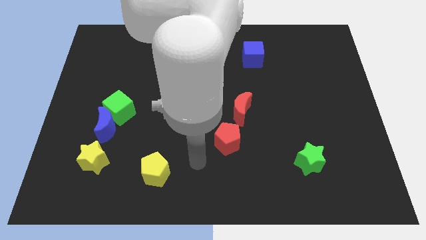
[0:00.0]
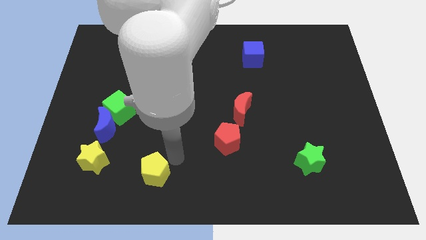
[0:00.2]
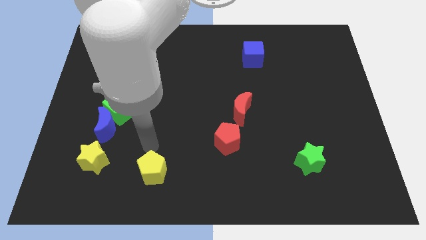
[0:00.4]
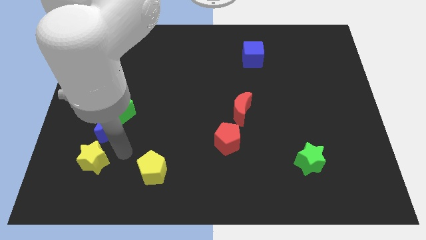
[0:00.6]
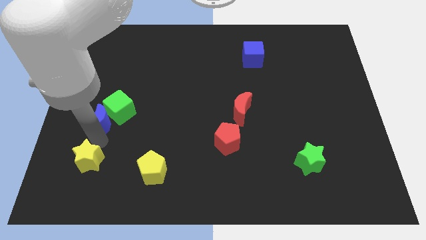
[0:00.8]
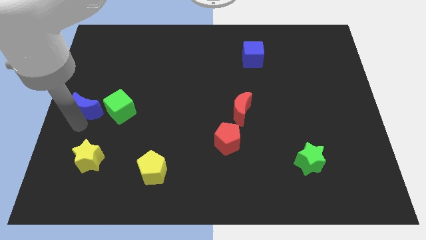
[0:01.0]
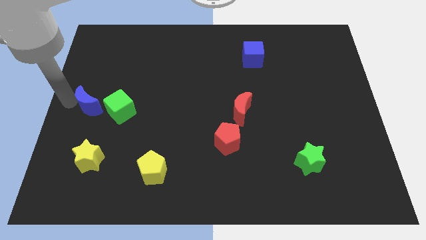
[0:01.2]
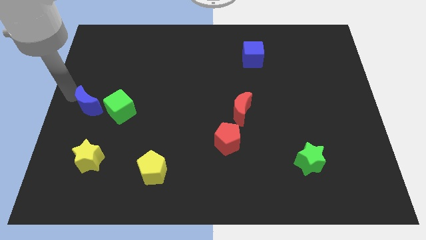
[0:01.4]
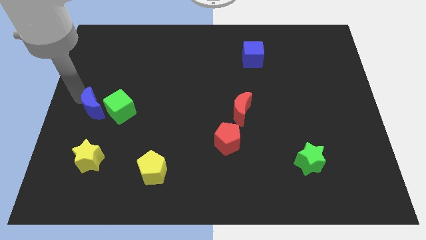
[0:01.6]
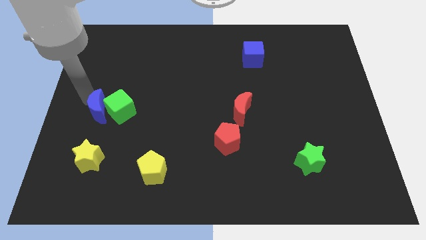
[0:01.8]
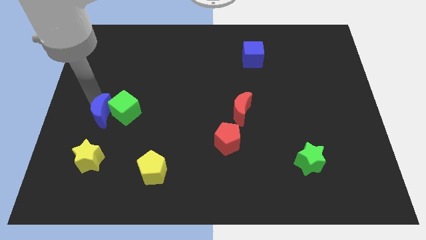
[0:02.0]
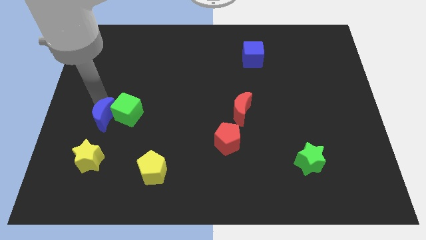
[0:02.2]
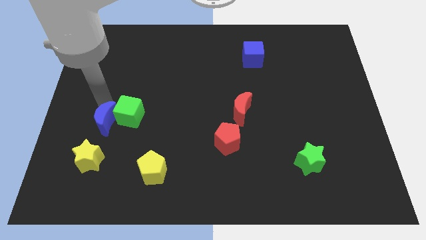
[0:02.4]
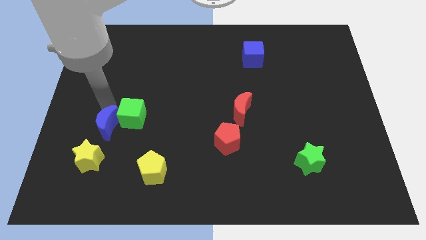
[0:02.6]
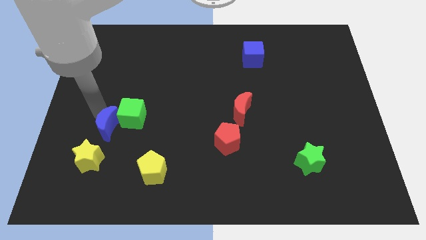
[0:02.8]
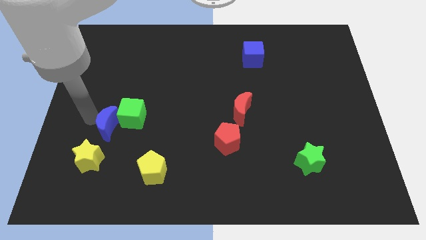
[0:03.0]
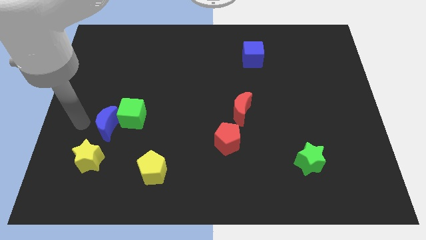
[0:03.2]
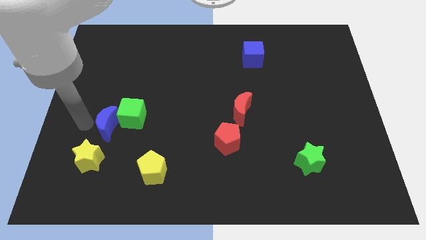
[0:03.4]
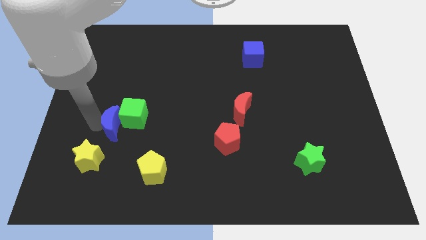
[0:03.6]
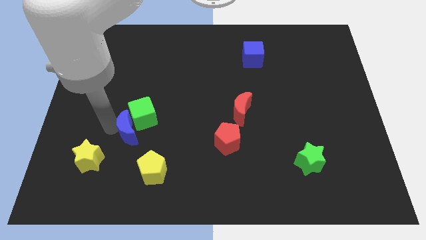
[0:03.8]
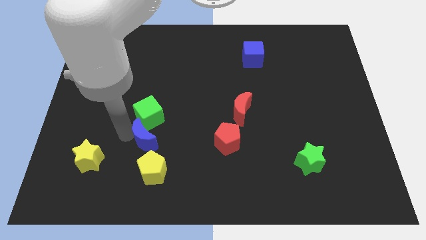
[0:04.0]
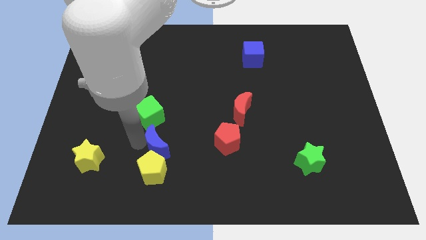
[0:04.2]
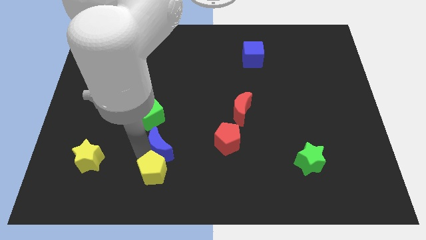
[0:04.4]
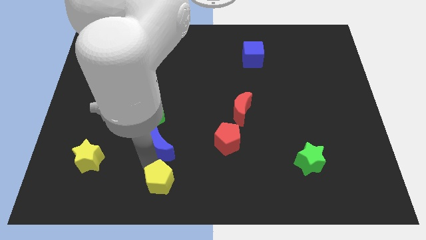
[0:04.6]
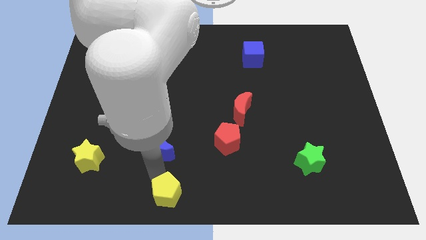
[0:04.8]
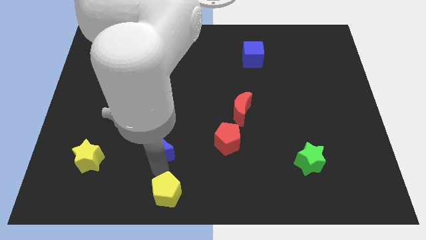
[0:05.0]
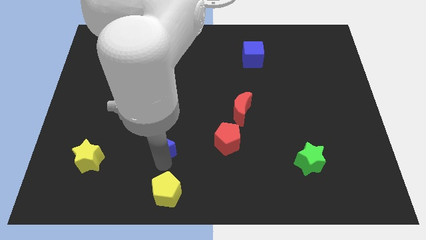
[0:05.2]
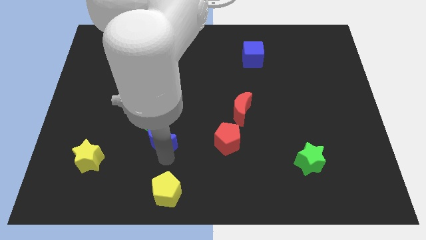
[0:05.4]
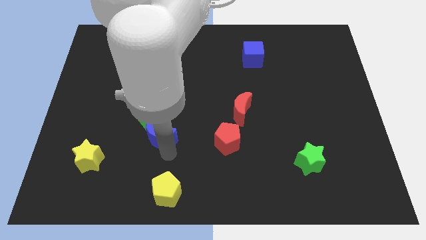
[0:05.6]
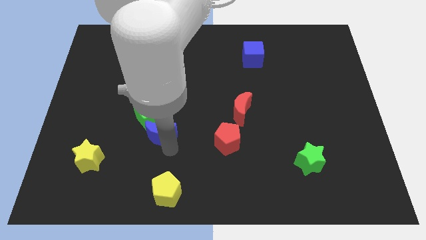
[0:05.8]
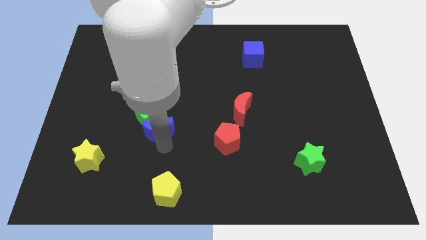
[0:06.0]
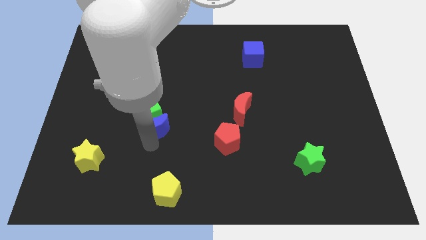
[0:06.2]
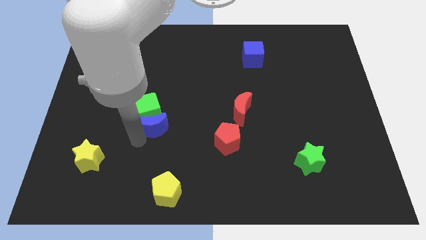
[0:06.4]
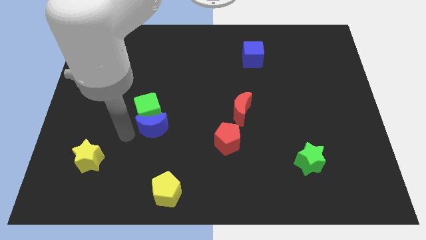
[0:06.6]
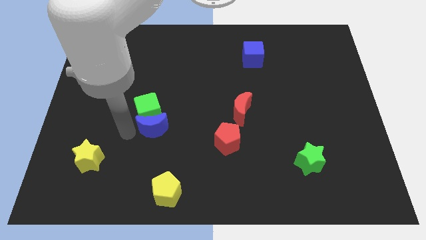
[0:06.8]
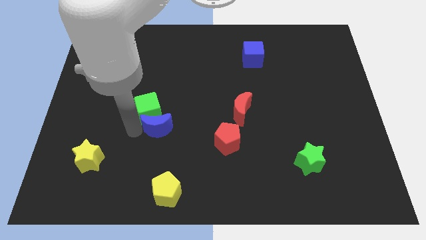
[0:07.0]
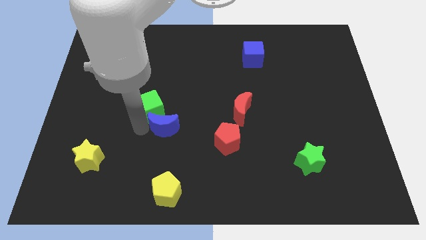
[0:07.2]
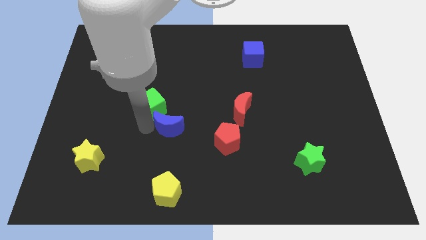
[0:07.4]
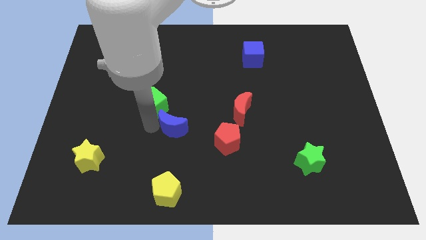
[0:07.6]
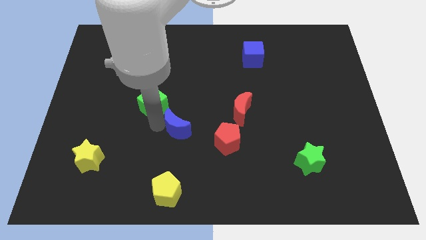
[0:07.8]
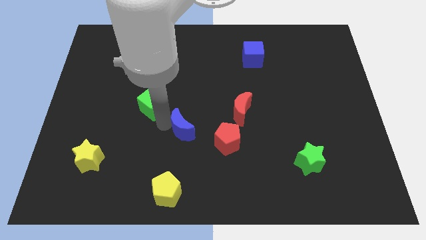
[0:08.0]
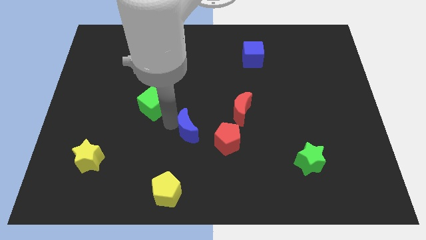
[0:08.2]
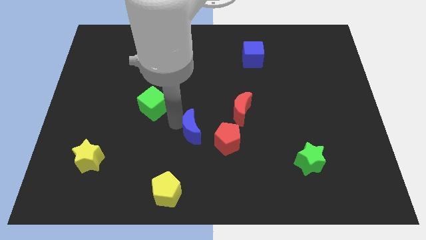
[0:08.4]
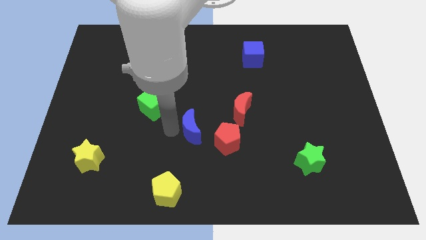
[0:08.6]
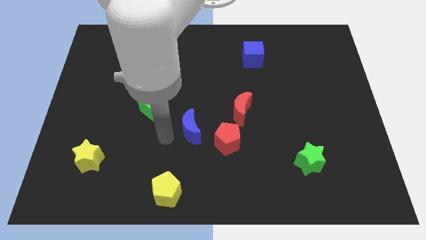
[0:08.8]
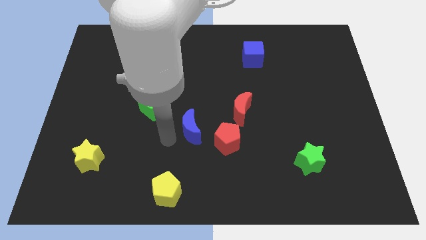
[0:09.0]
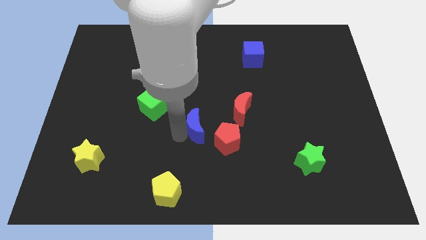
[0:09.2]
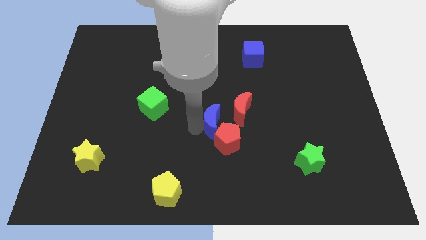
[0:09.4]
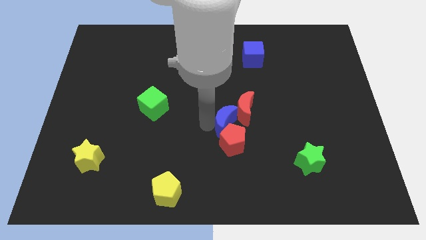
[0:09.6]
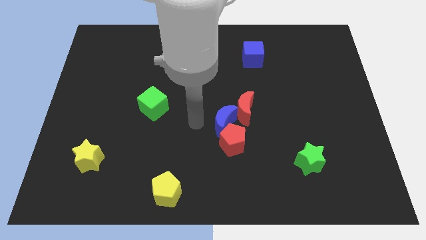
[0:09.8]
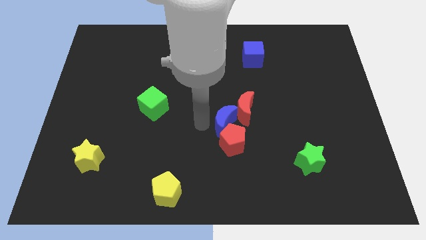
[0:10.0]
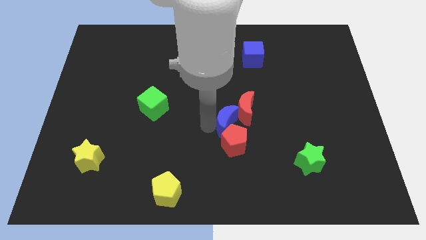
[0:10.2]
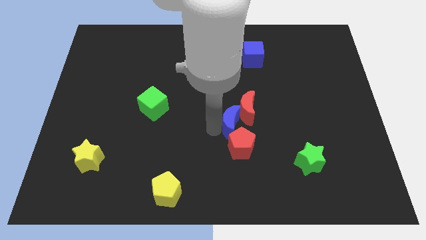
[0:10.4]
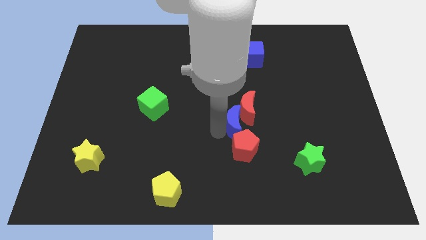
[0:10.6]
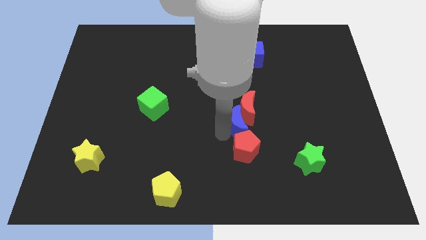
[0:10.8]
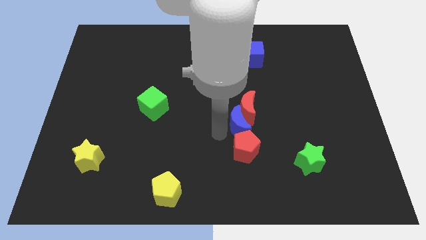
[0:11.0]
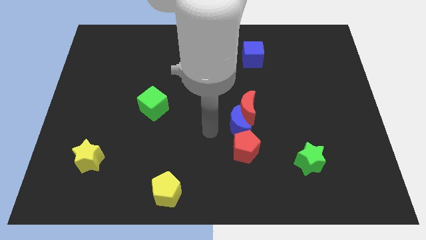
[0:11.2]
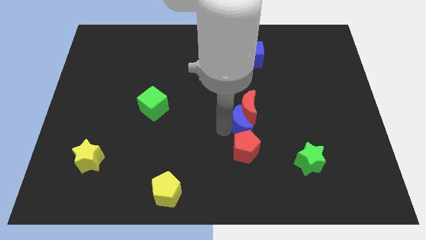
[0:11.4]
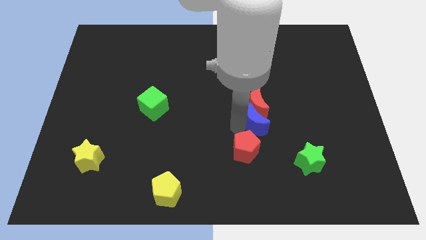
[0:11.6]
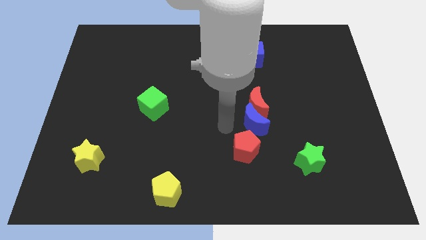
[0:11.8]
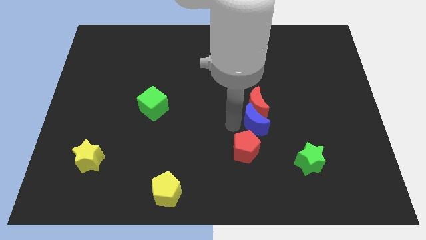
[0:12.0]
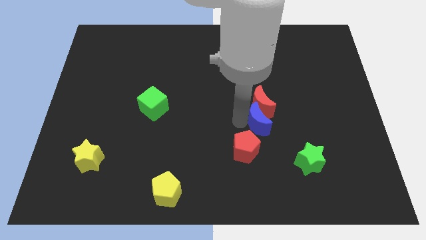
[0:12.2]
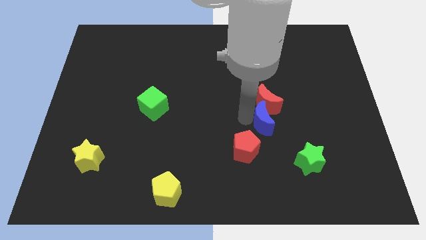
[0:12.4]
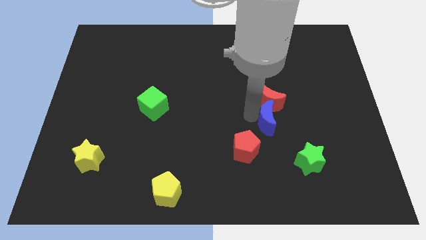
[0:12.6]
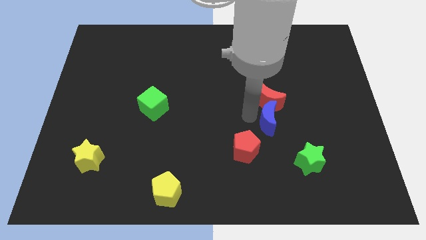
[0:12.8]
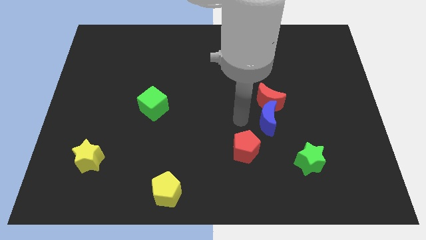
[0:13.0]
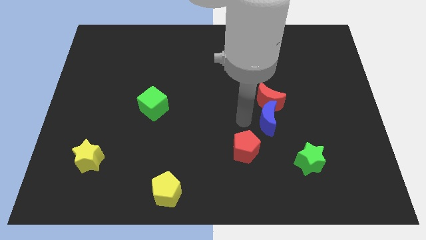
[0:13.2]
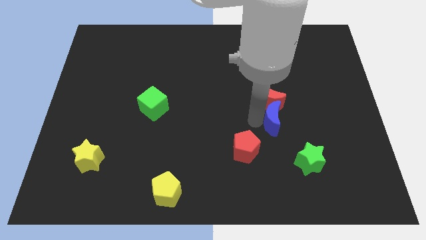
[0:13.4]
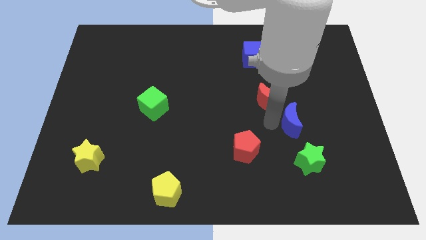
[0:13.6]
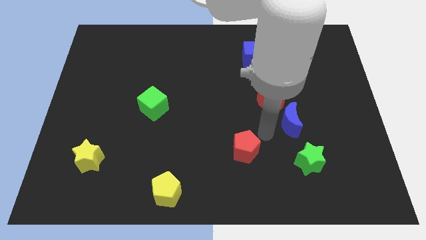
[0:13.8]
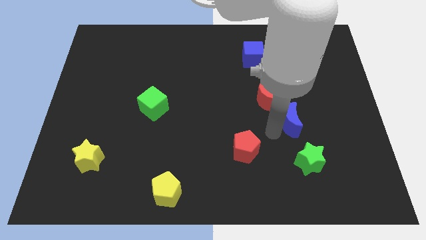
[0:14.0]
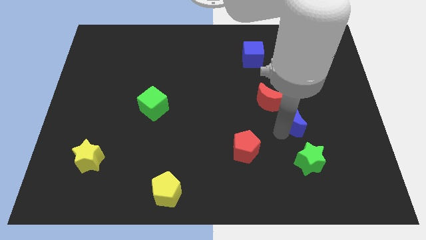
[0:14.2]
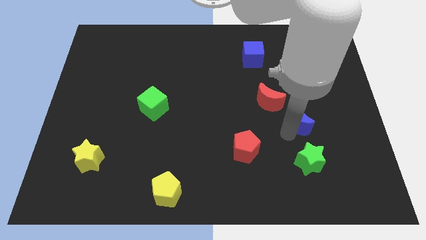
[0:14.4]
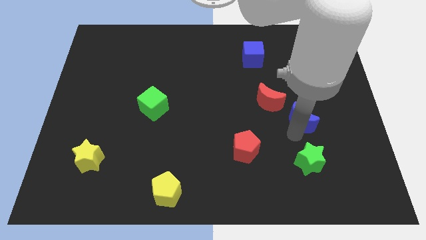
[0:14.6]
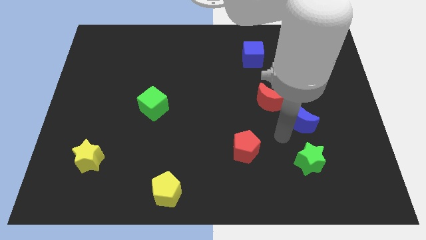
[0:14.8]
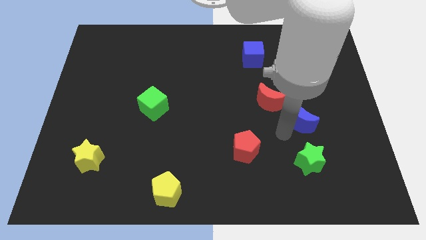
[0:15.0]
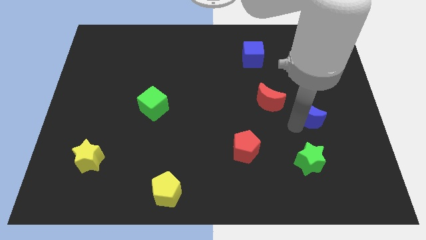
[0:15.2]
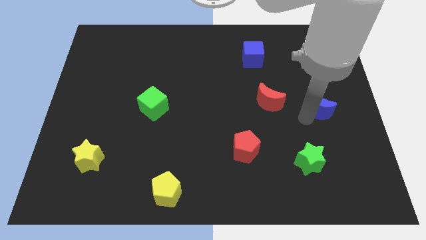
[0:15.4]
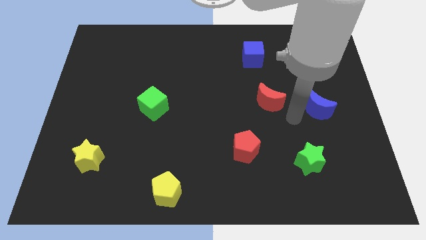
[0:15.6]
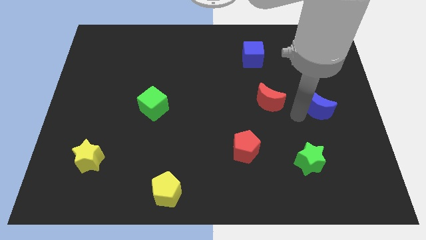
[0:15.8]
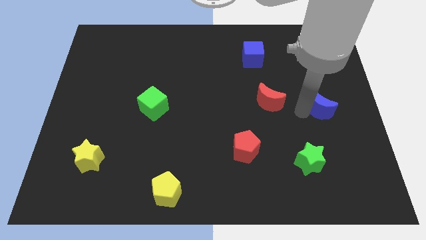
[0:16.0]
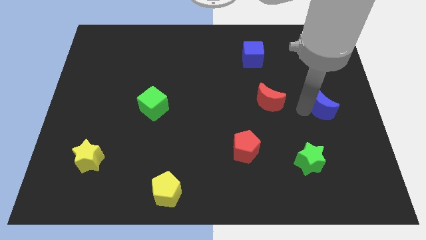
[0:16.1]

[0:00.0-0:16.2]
push the blue moon to the right side of the board
